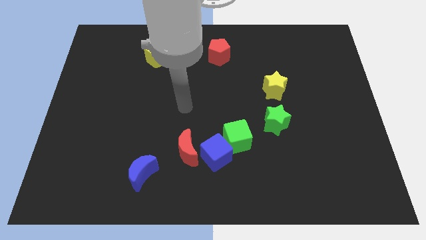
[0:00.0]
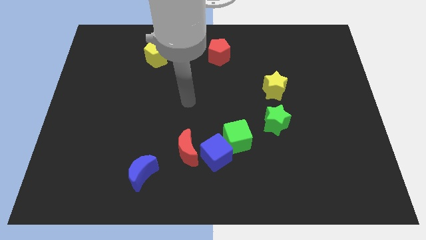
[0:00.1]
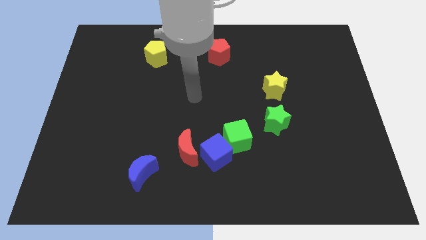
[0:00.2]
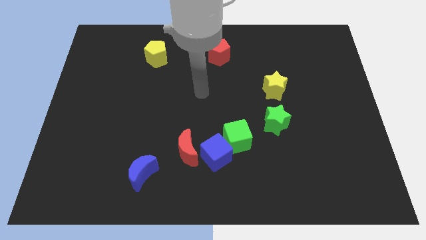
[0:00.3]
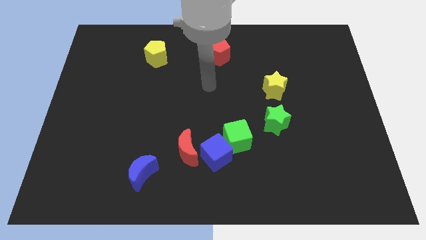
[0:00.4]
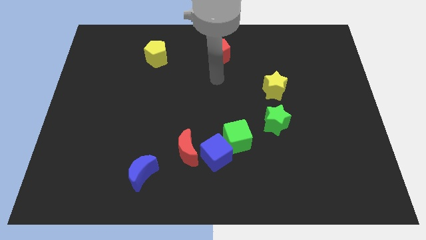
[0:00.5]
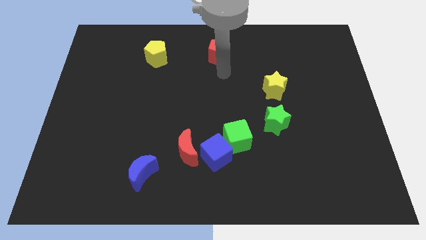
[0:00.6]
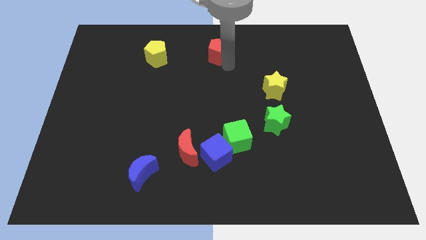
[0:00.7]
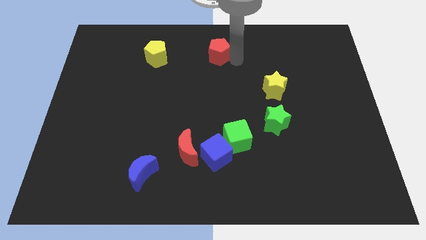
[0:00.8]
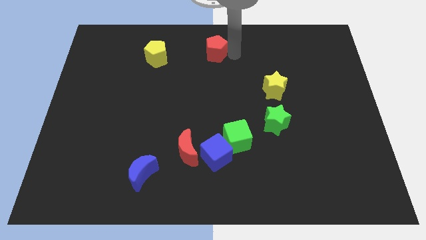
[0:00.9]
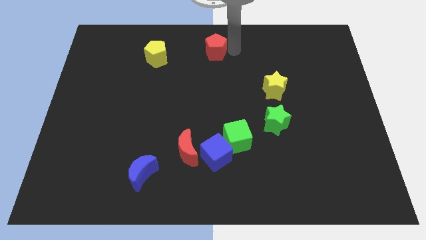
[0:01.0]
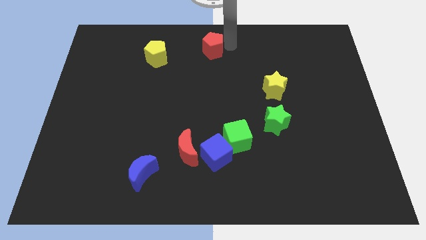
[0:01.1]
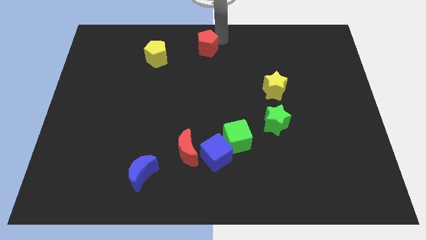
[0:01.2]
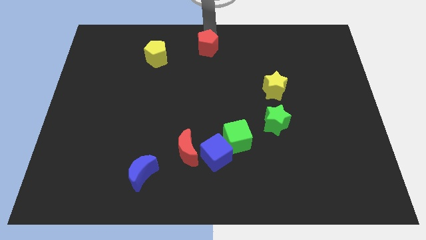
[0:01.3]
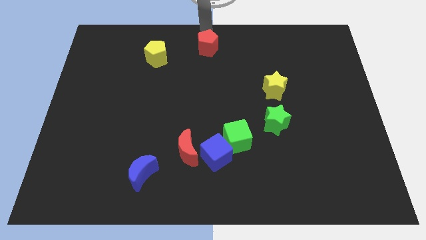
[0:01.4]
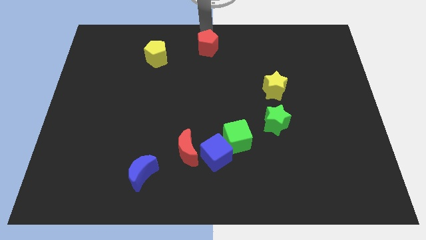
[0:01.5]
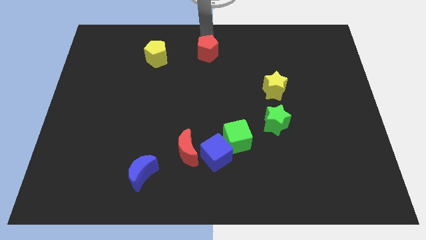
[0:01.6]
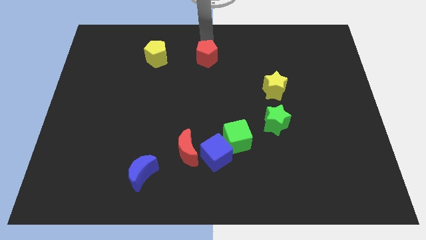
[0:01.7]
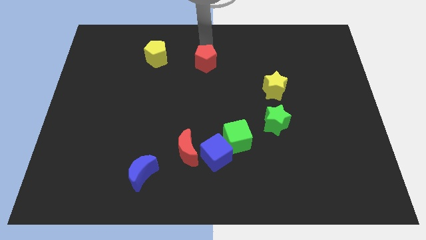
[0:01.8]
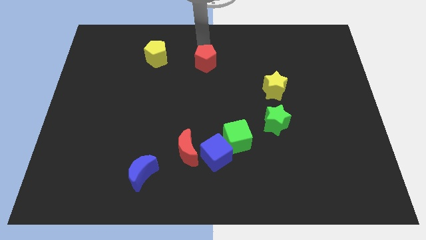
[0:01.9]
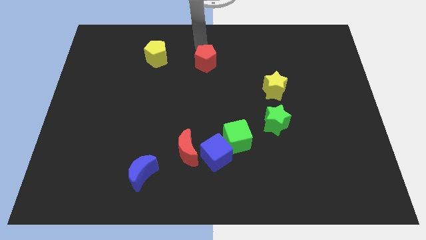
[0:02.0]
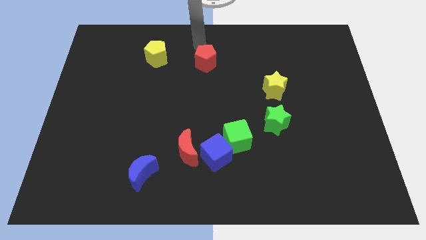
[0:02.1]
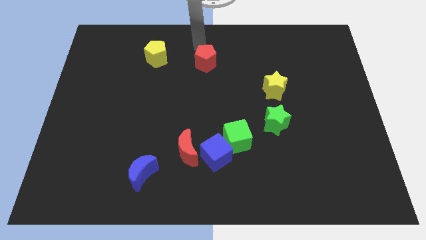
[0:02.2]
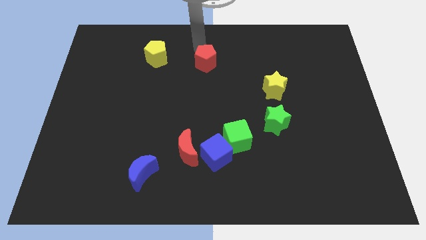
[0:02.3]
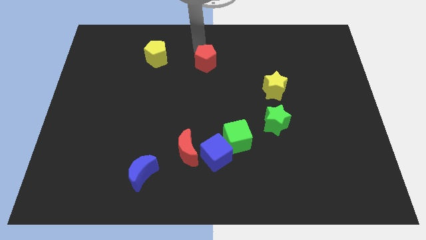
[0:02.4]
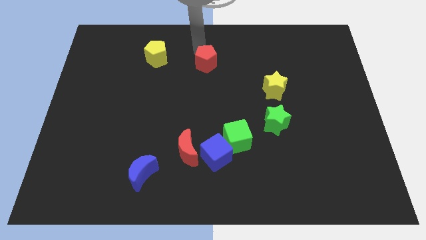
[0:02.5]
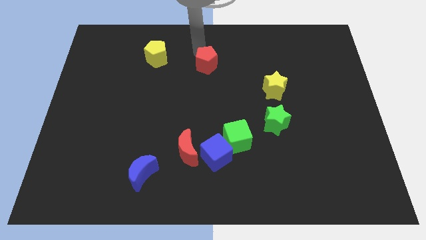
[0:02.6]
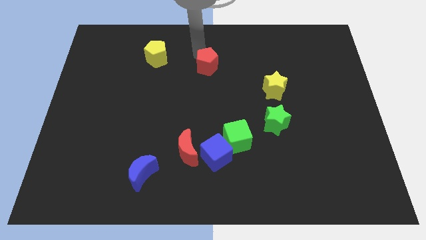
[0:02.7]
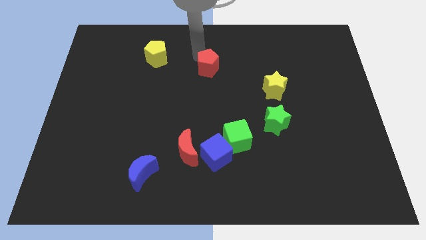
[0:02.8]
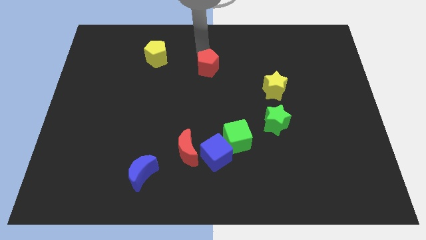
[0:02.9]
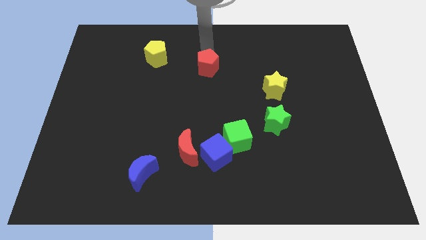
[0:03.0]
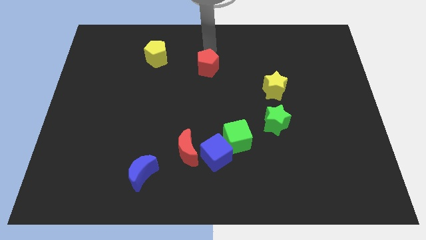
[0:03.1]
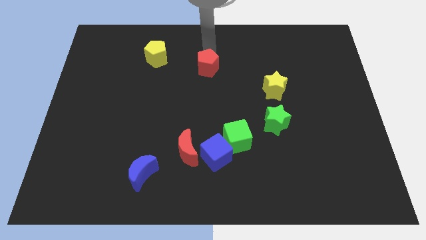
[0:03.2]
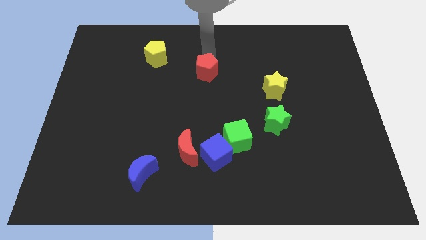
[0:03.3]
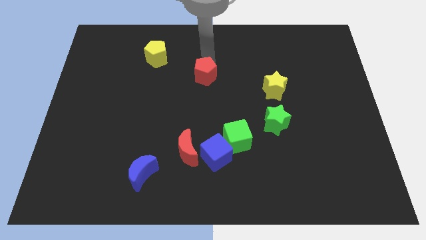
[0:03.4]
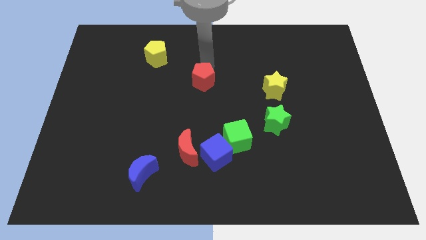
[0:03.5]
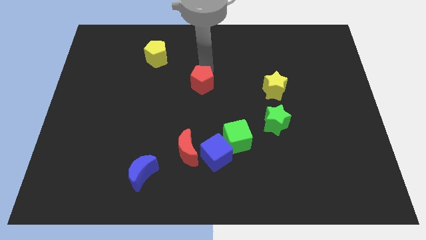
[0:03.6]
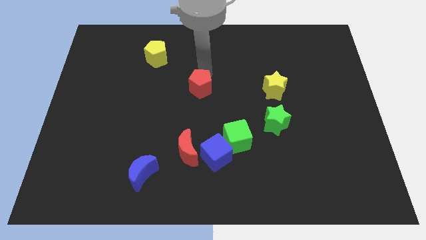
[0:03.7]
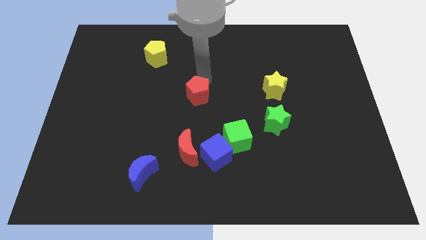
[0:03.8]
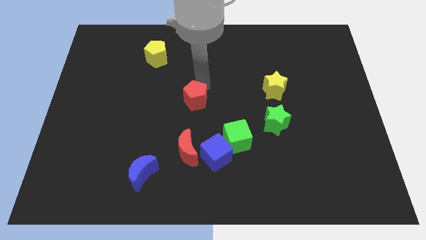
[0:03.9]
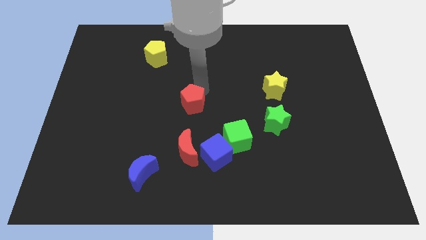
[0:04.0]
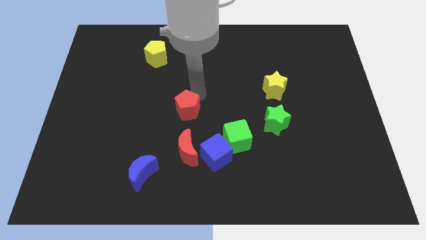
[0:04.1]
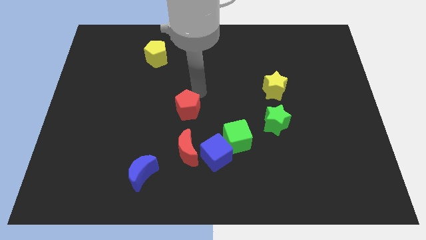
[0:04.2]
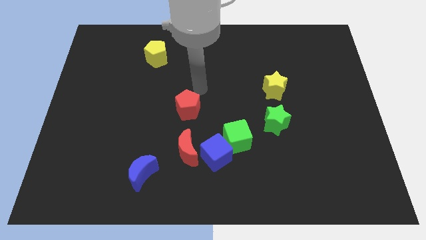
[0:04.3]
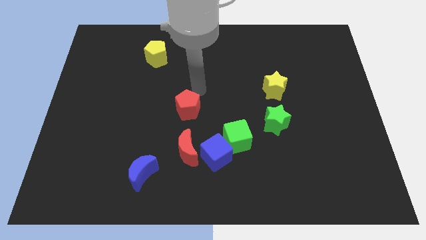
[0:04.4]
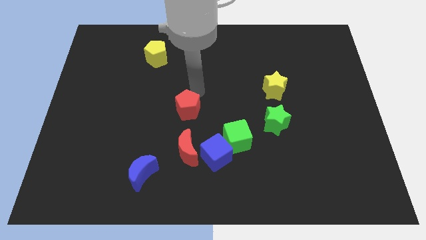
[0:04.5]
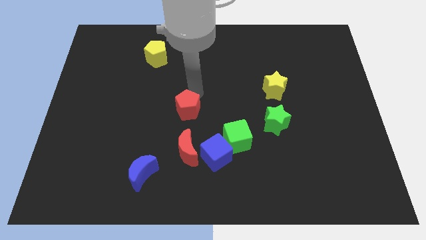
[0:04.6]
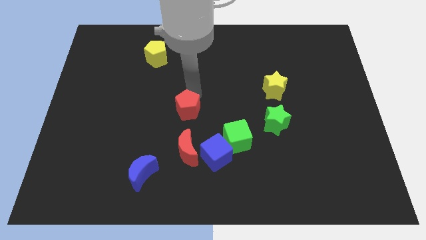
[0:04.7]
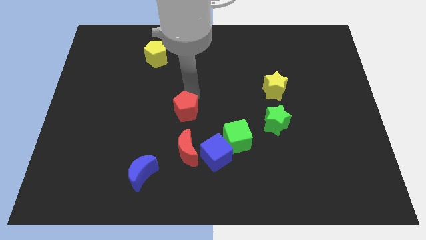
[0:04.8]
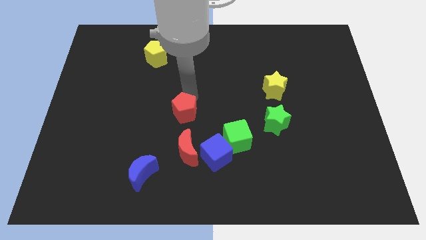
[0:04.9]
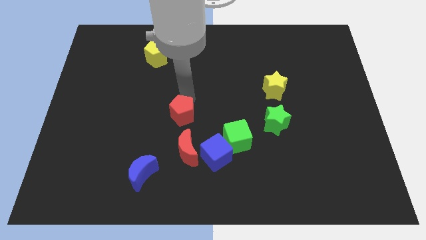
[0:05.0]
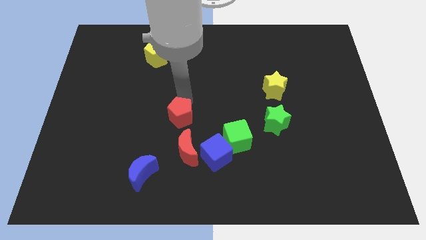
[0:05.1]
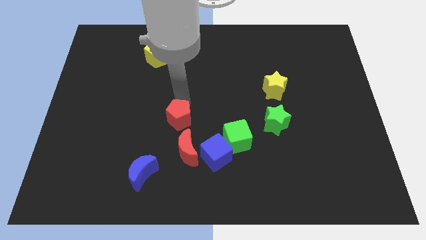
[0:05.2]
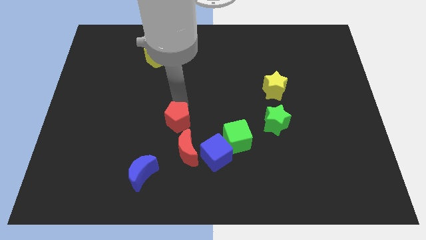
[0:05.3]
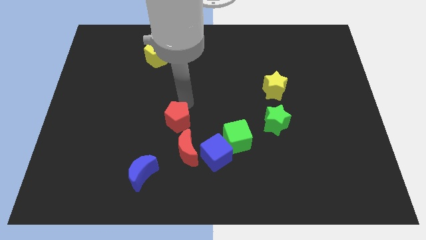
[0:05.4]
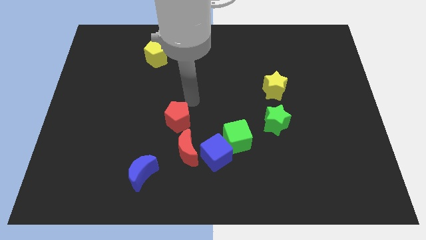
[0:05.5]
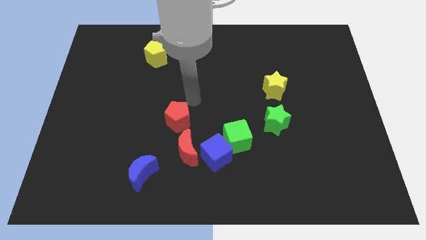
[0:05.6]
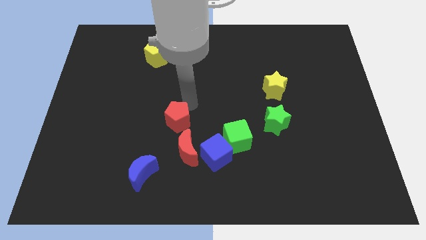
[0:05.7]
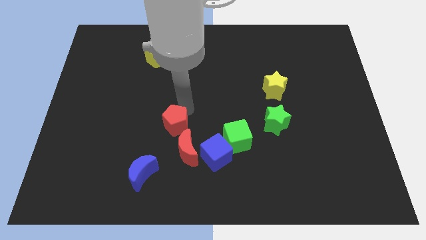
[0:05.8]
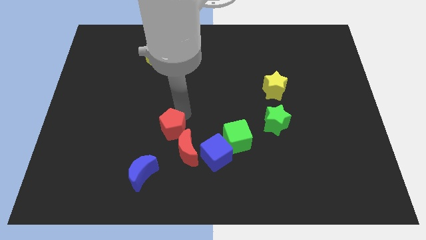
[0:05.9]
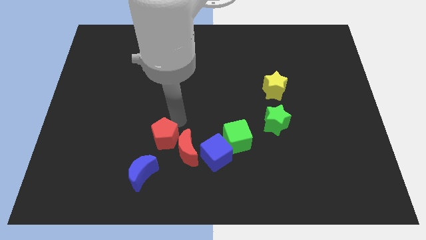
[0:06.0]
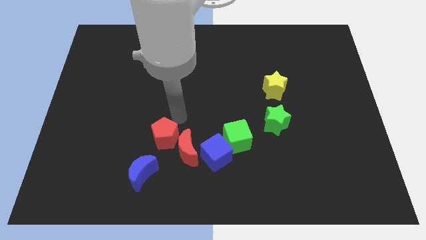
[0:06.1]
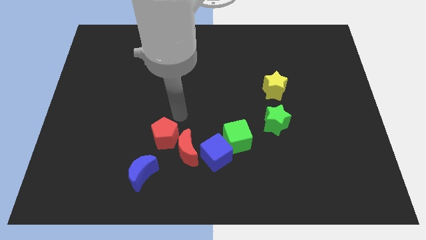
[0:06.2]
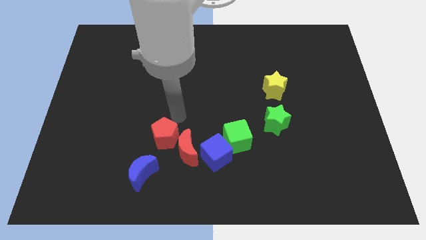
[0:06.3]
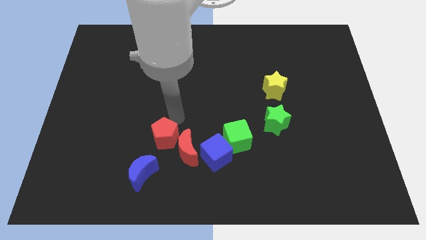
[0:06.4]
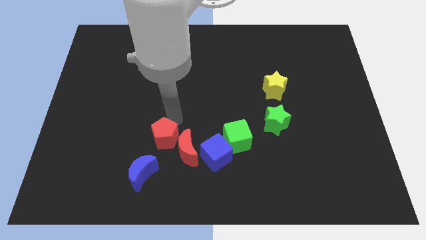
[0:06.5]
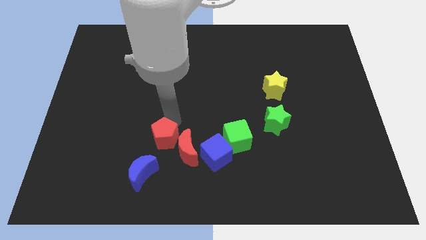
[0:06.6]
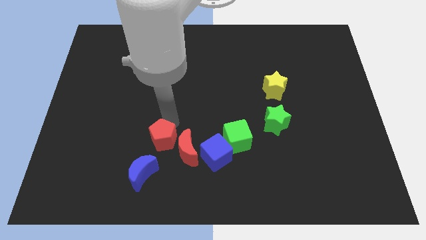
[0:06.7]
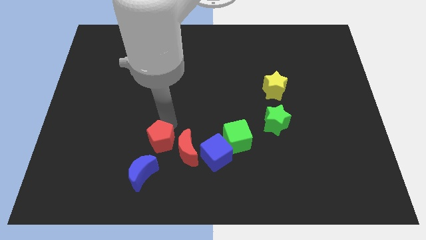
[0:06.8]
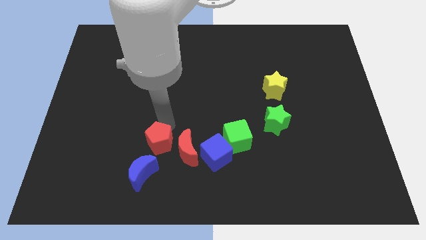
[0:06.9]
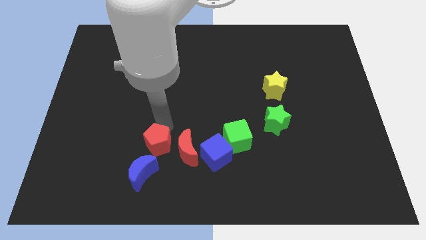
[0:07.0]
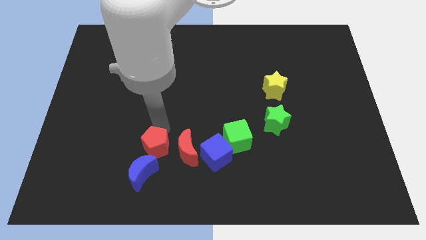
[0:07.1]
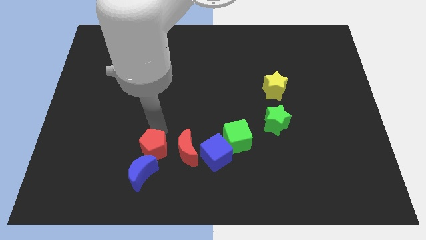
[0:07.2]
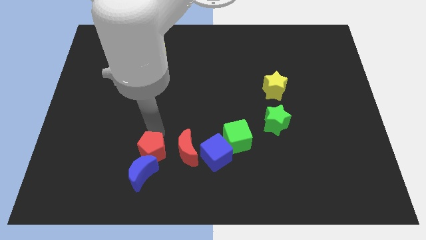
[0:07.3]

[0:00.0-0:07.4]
slide the red pentagon next to the blue moon
